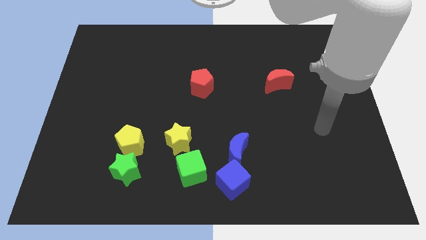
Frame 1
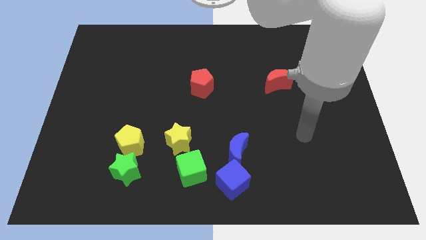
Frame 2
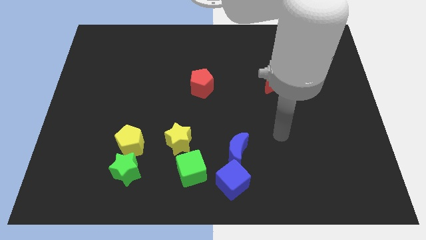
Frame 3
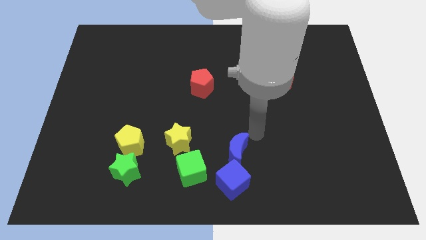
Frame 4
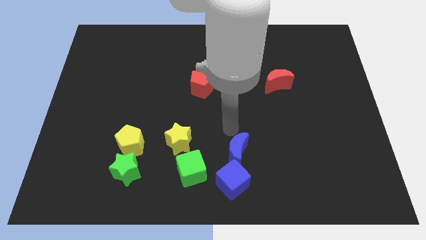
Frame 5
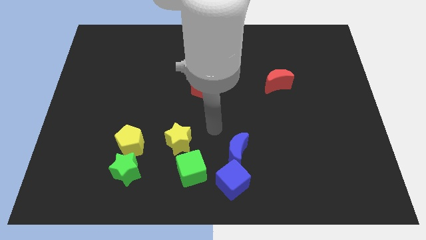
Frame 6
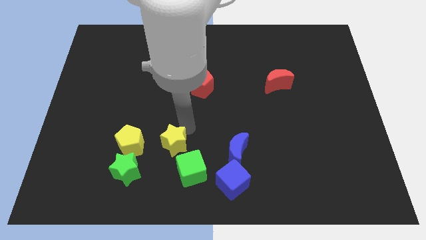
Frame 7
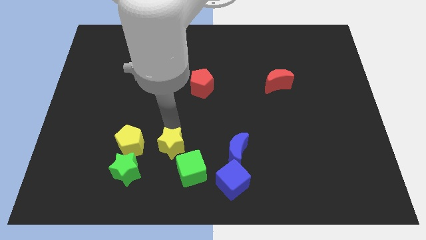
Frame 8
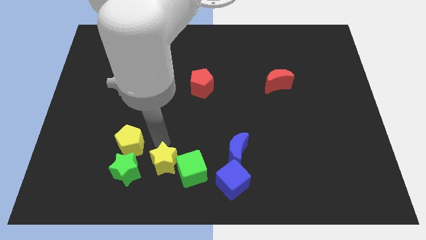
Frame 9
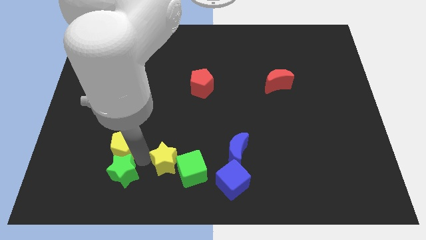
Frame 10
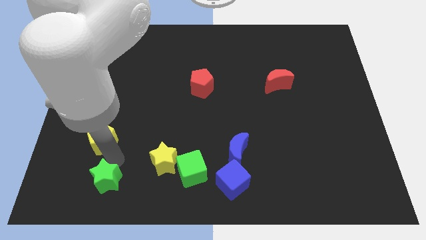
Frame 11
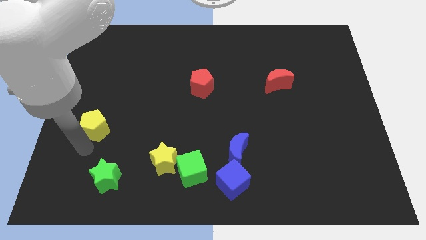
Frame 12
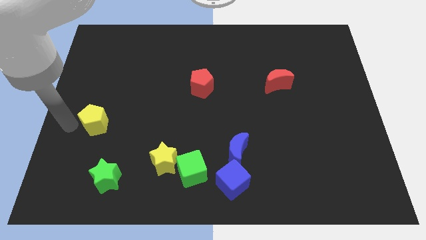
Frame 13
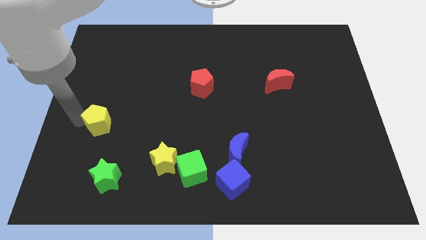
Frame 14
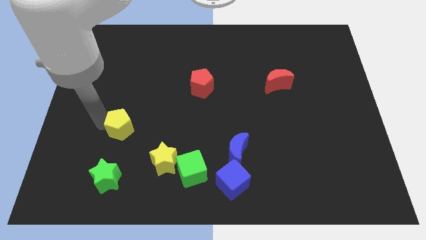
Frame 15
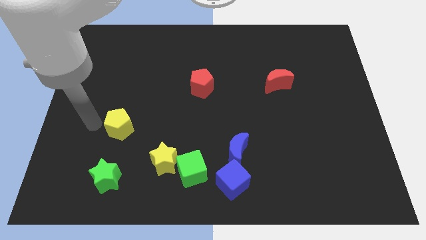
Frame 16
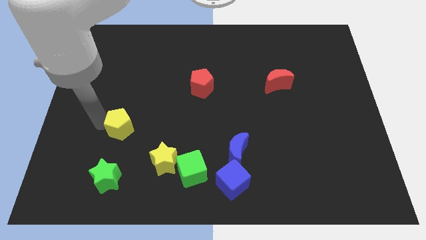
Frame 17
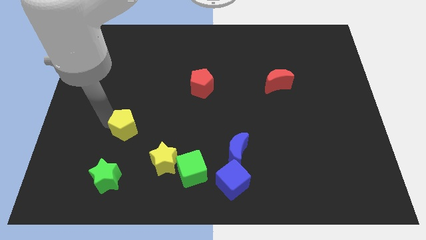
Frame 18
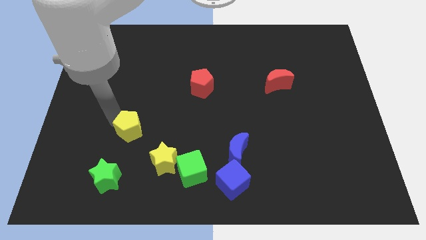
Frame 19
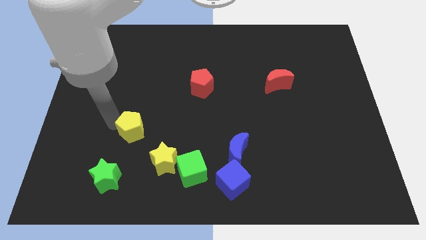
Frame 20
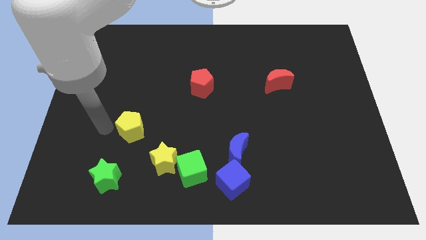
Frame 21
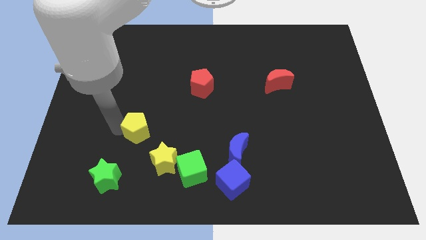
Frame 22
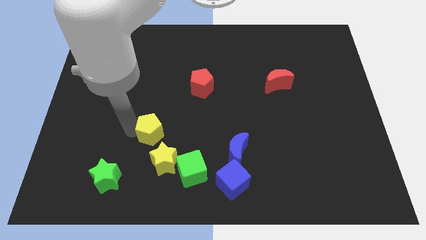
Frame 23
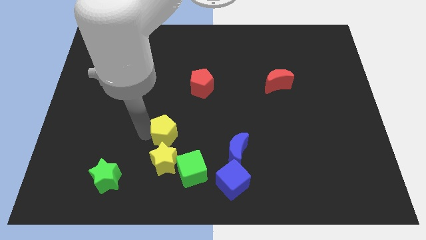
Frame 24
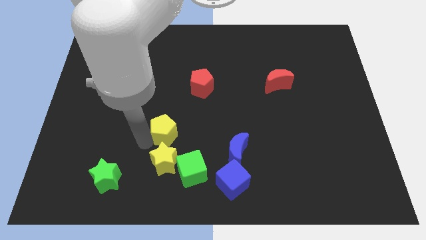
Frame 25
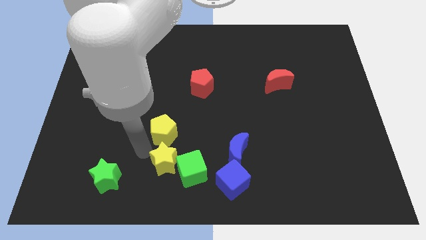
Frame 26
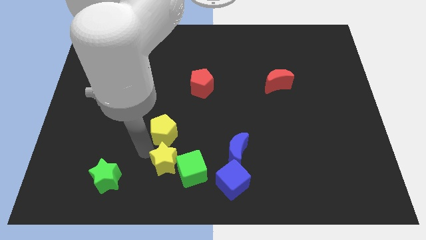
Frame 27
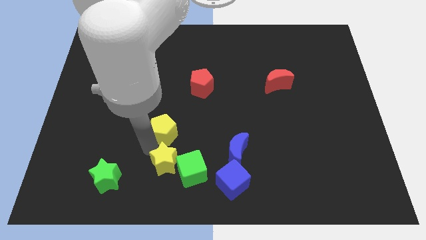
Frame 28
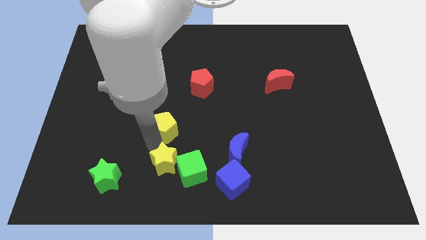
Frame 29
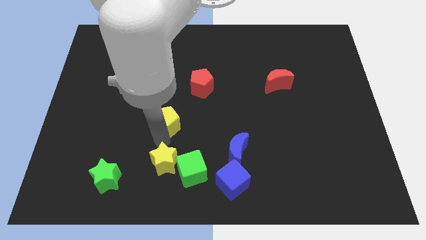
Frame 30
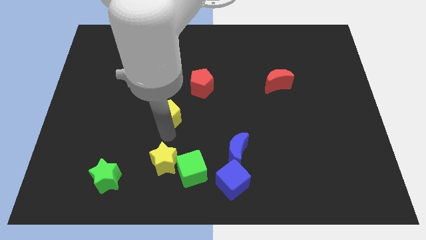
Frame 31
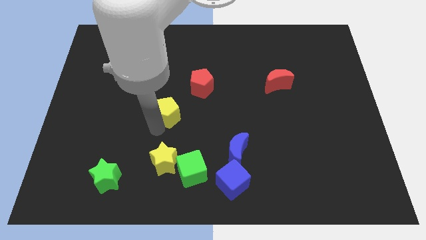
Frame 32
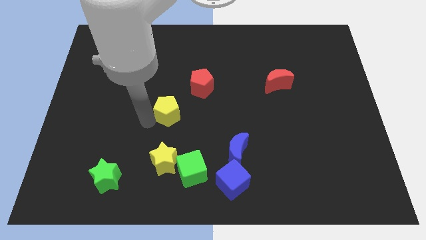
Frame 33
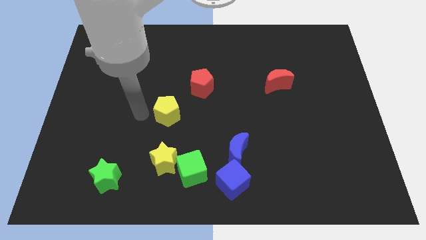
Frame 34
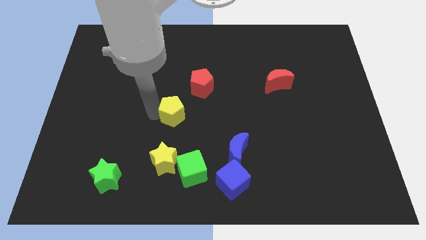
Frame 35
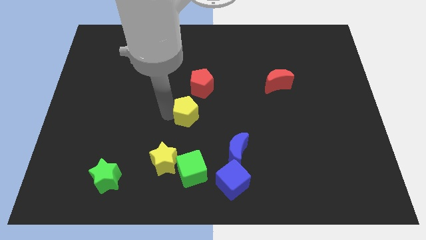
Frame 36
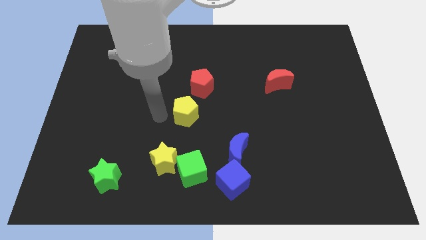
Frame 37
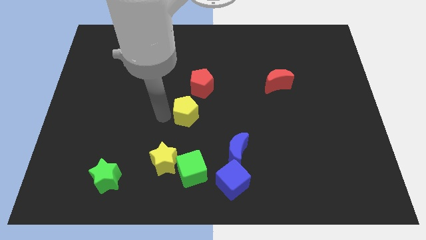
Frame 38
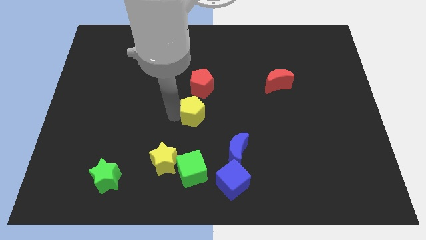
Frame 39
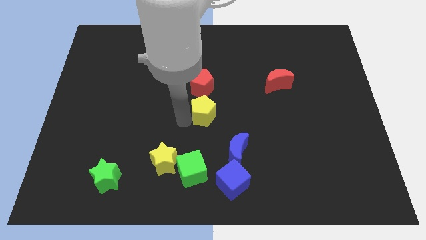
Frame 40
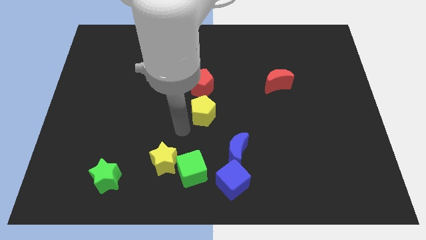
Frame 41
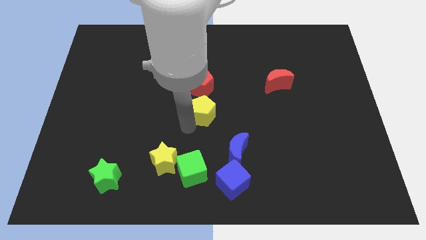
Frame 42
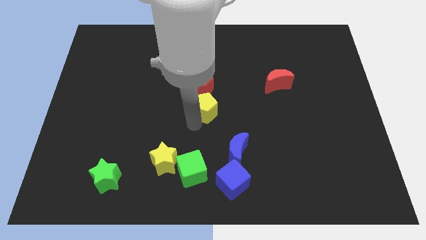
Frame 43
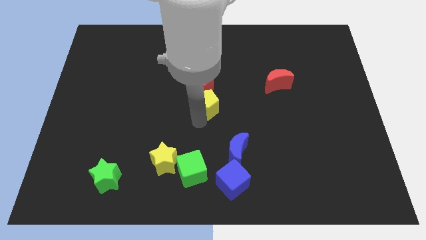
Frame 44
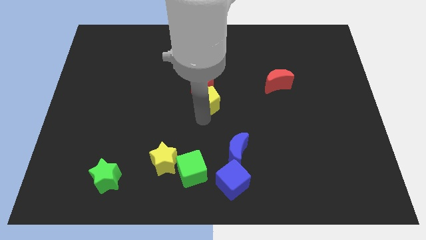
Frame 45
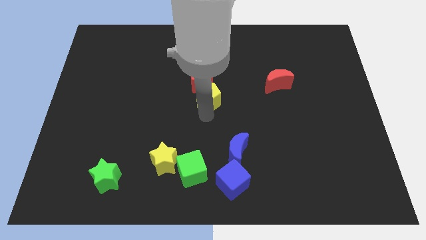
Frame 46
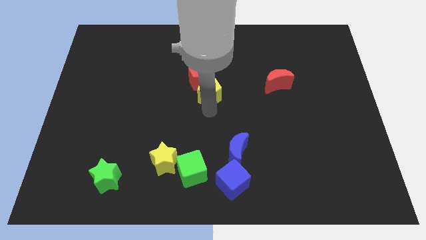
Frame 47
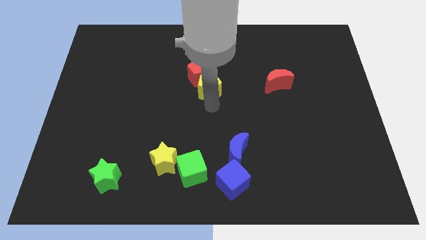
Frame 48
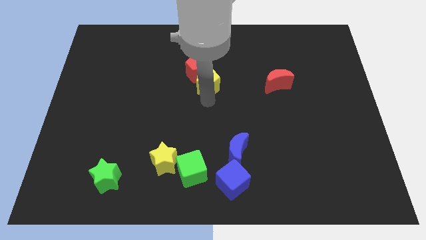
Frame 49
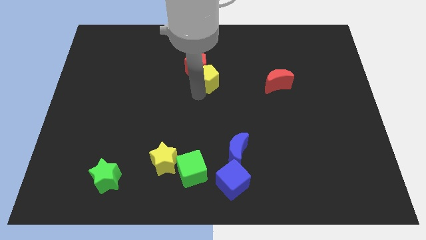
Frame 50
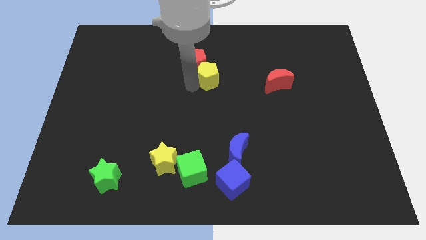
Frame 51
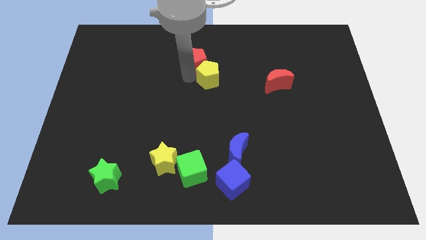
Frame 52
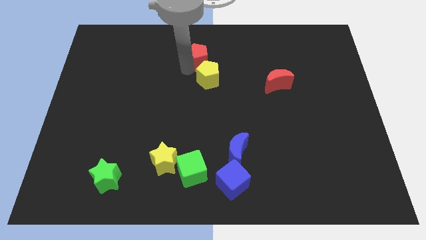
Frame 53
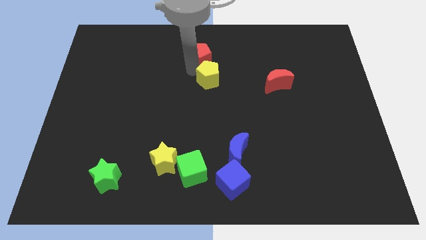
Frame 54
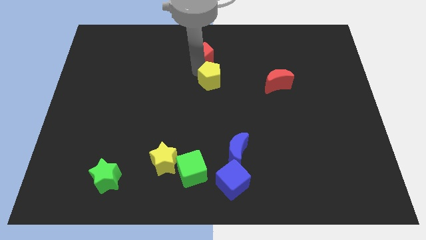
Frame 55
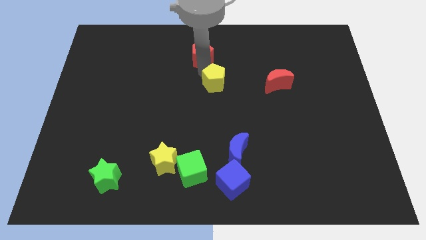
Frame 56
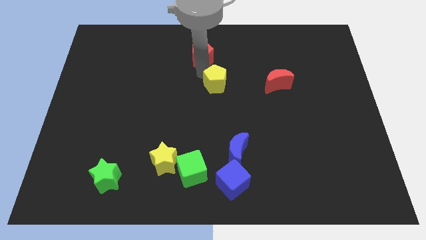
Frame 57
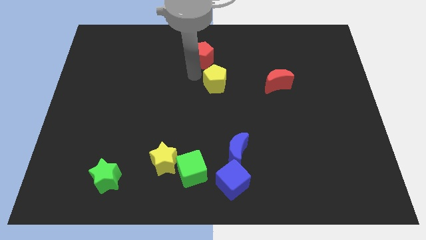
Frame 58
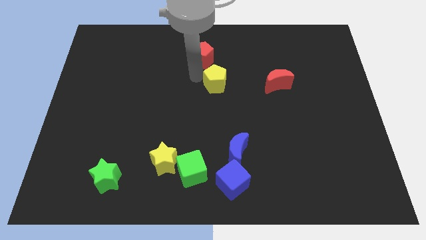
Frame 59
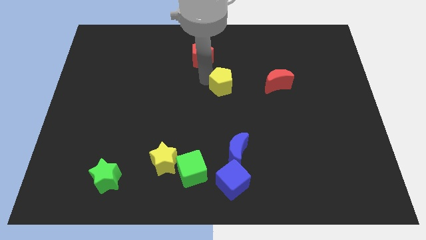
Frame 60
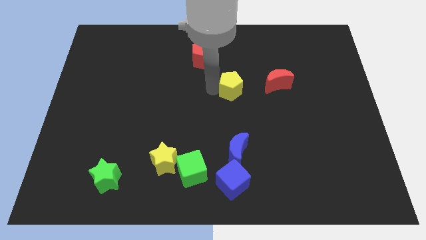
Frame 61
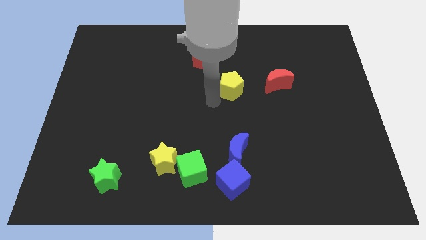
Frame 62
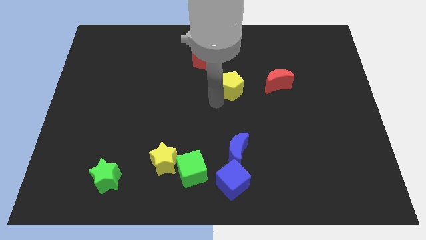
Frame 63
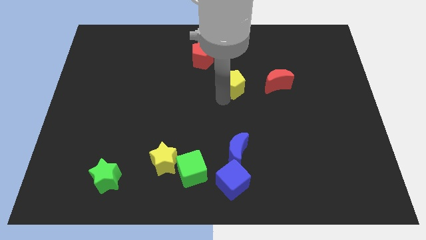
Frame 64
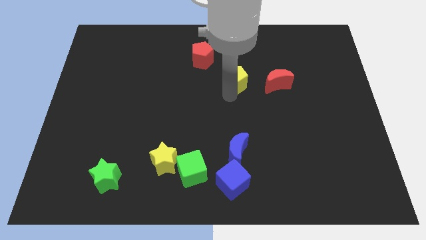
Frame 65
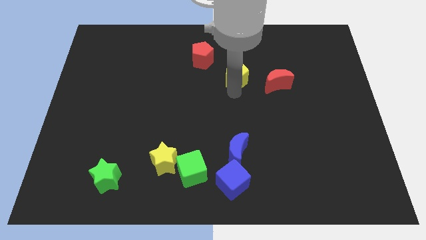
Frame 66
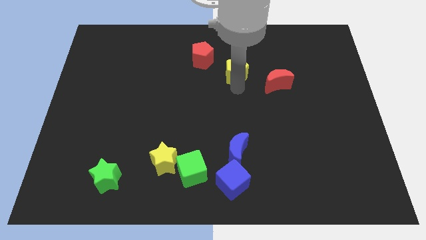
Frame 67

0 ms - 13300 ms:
move the yellow pentagon diagonally up and to the left of the red moon

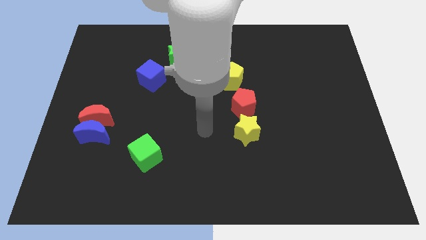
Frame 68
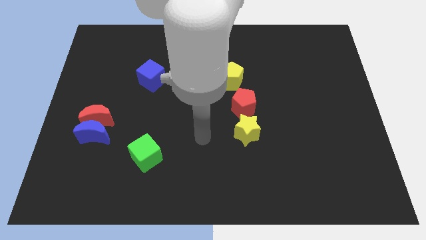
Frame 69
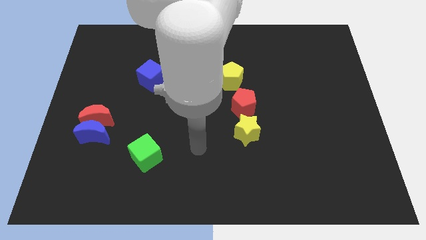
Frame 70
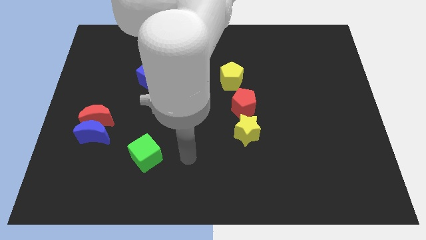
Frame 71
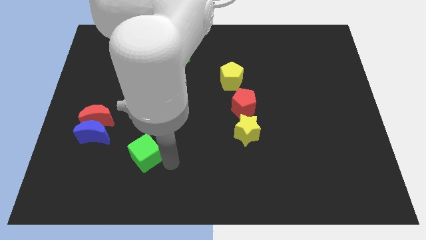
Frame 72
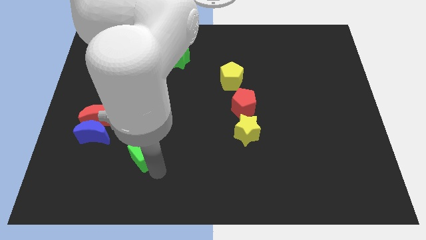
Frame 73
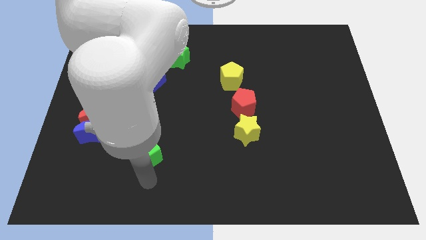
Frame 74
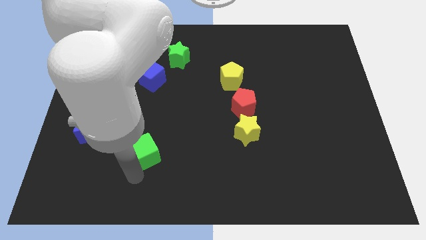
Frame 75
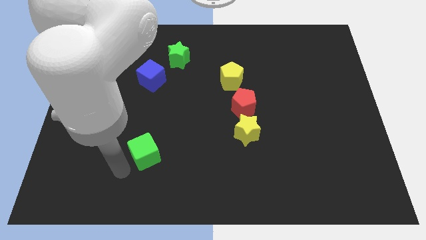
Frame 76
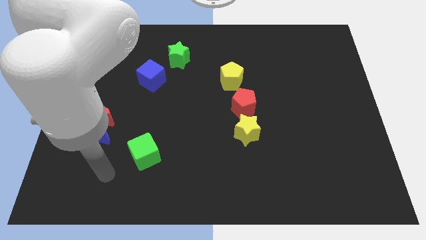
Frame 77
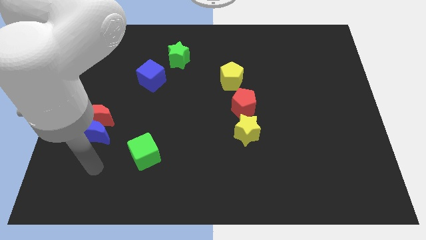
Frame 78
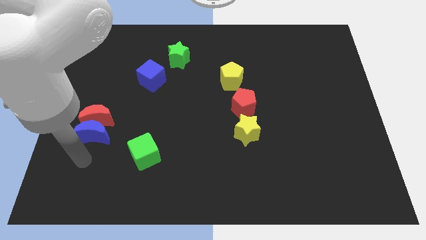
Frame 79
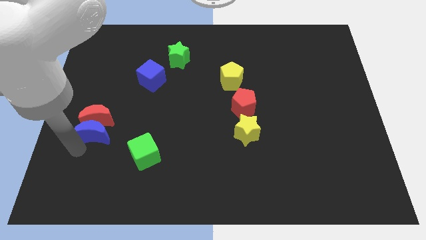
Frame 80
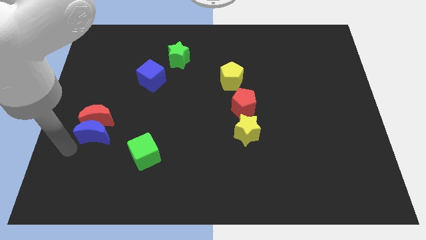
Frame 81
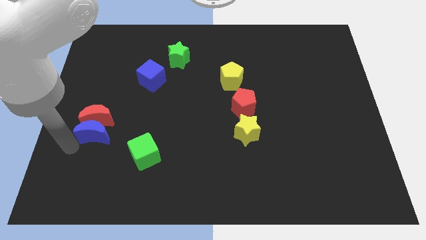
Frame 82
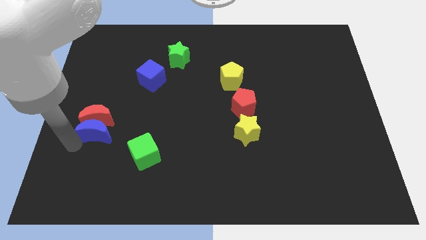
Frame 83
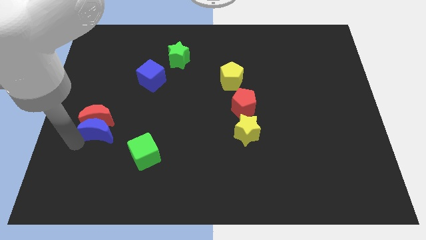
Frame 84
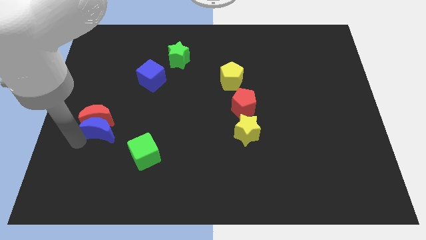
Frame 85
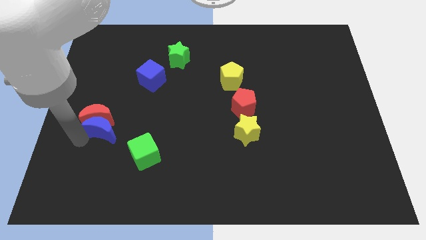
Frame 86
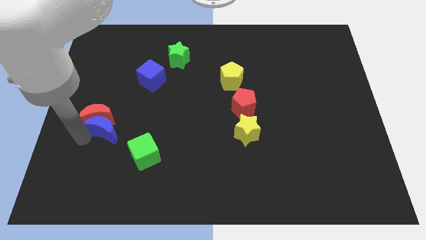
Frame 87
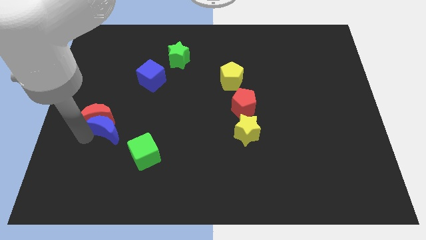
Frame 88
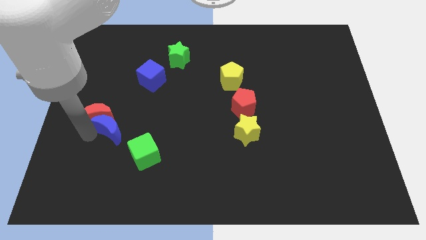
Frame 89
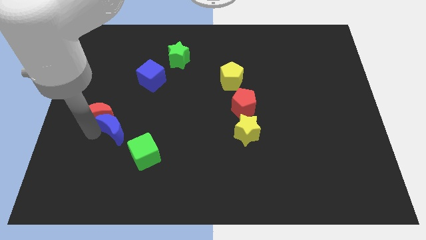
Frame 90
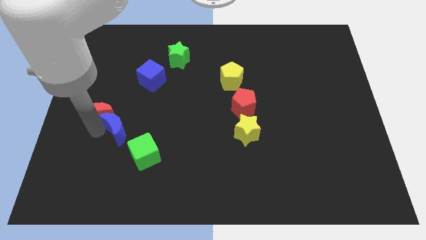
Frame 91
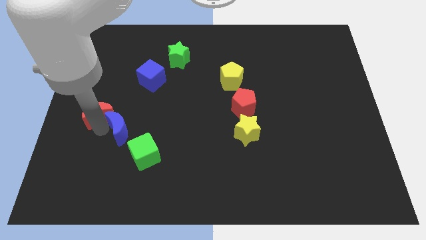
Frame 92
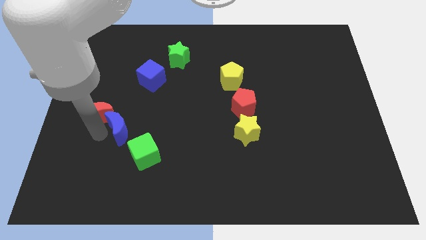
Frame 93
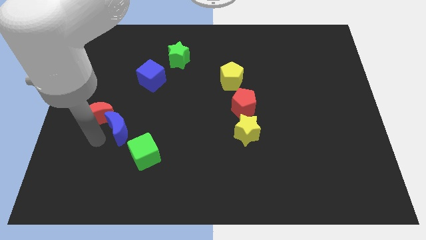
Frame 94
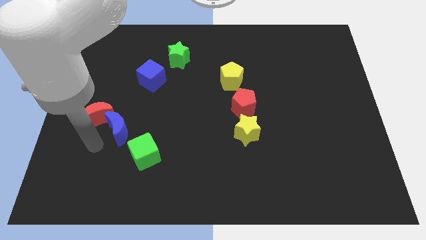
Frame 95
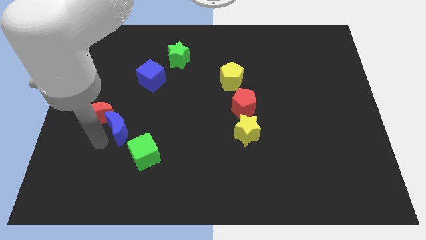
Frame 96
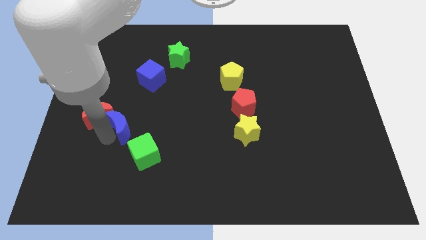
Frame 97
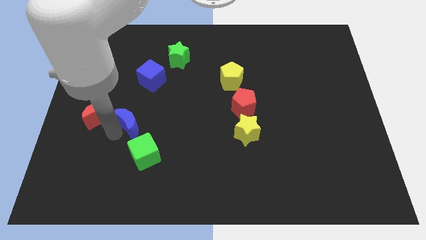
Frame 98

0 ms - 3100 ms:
push the blue moon to the bottom of the blue cube
